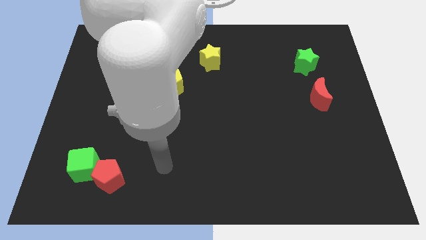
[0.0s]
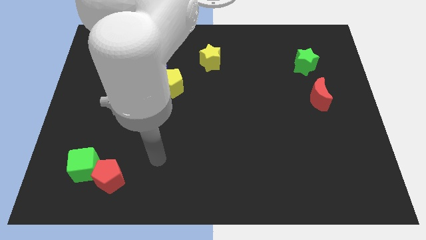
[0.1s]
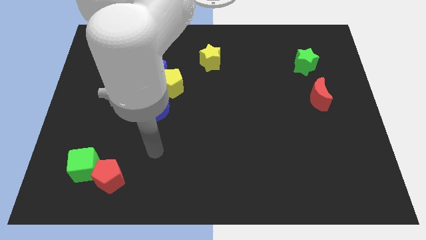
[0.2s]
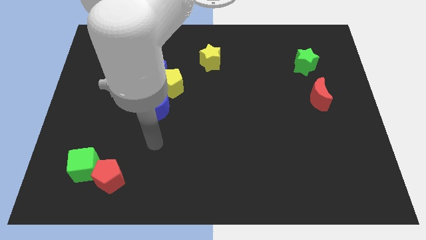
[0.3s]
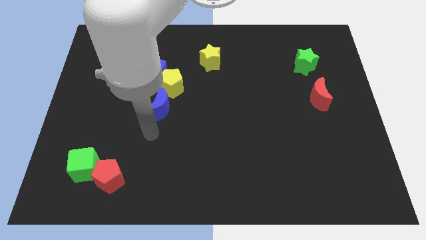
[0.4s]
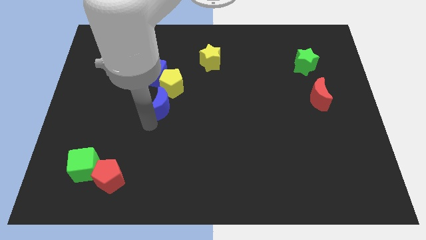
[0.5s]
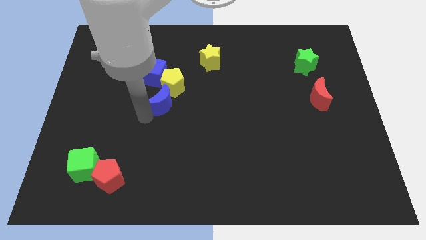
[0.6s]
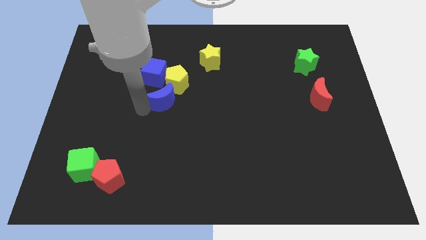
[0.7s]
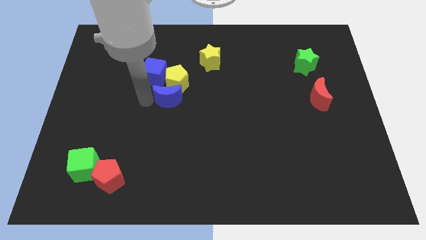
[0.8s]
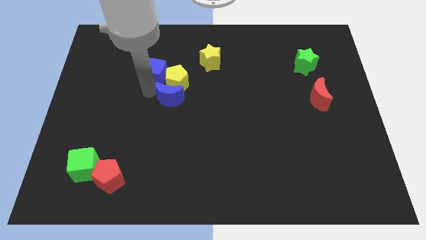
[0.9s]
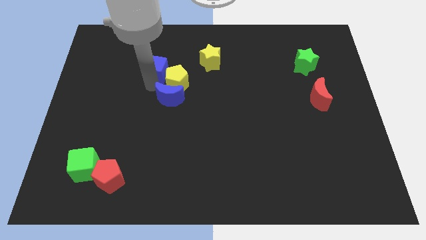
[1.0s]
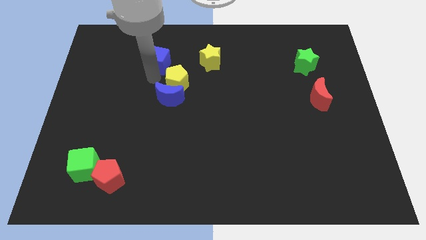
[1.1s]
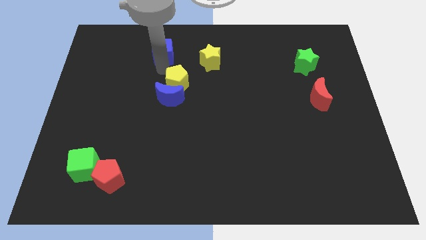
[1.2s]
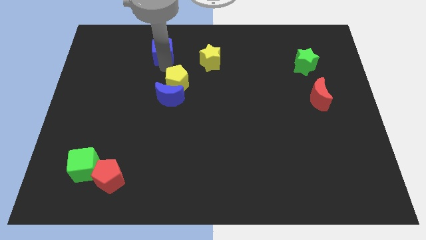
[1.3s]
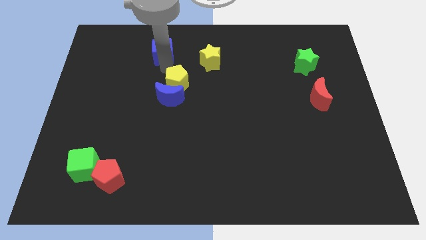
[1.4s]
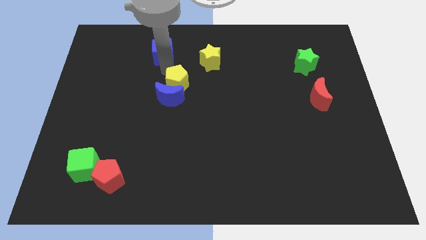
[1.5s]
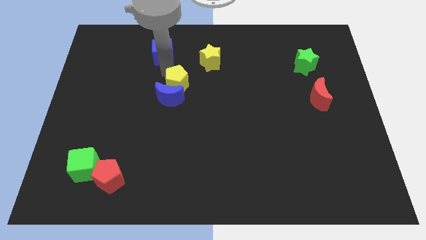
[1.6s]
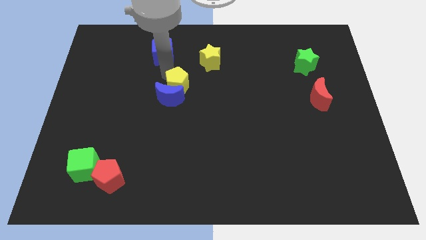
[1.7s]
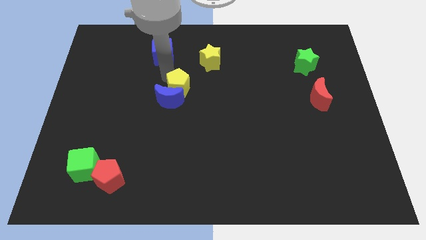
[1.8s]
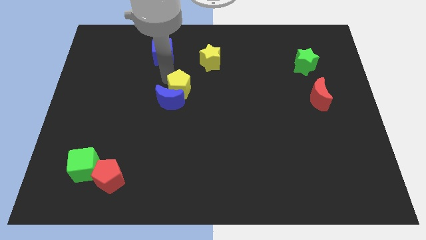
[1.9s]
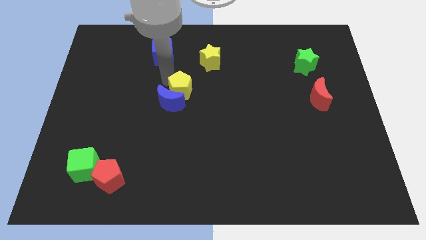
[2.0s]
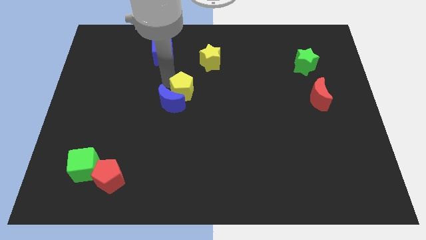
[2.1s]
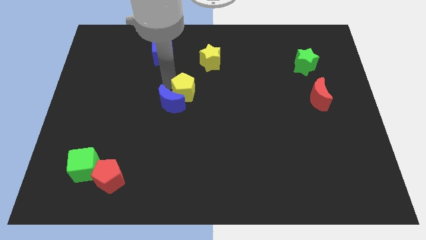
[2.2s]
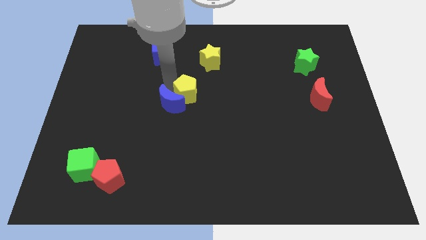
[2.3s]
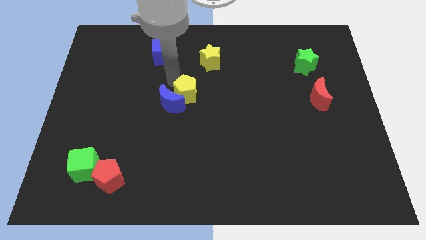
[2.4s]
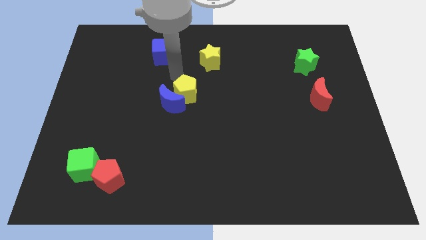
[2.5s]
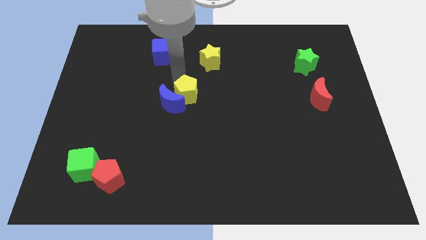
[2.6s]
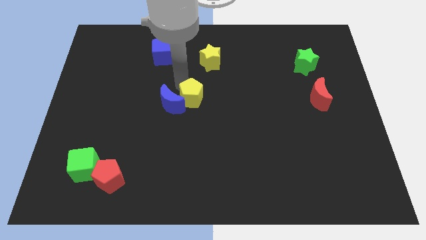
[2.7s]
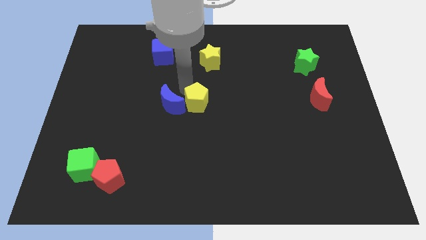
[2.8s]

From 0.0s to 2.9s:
push the yellow pentagon somewhat downwards and right

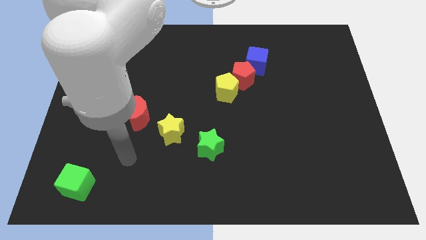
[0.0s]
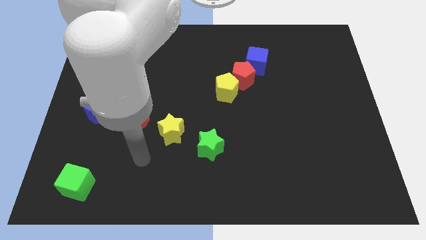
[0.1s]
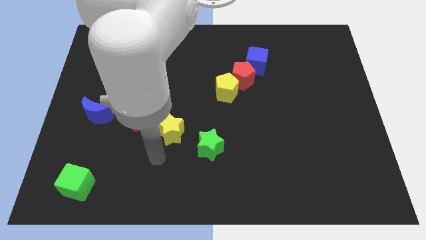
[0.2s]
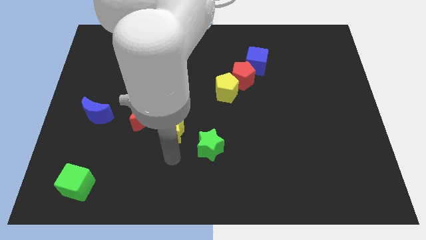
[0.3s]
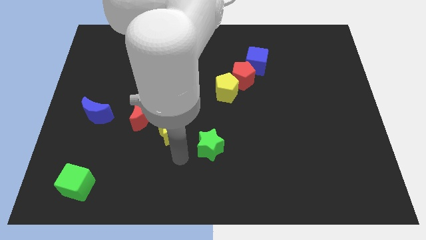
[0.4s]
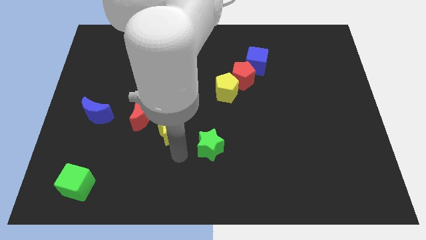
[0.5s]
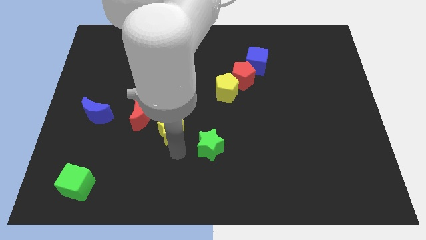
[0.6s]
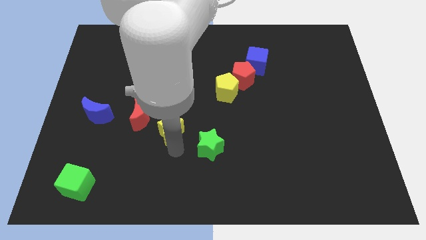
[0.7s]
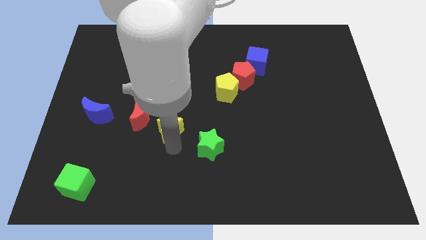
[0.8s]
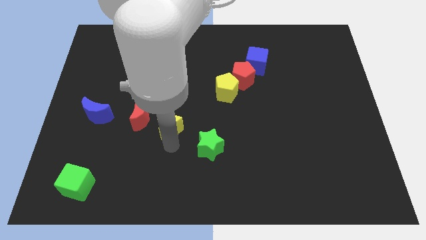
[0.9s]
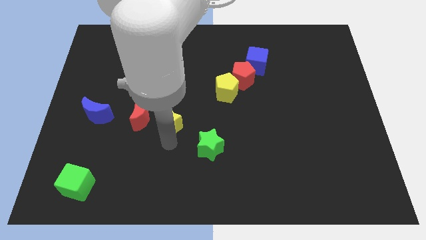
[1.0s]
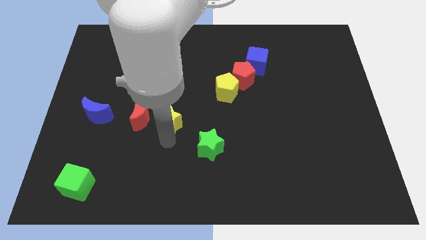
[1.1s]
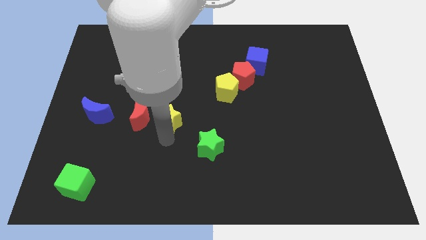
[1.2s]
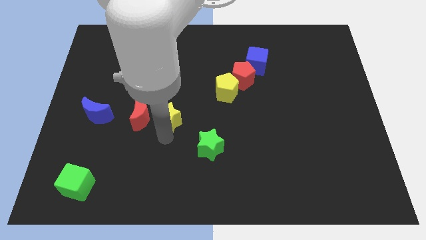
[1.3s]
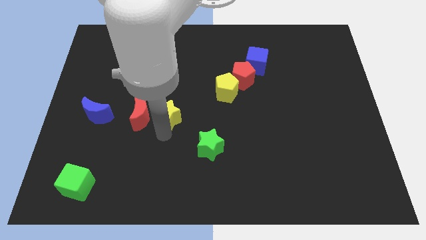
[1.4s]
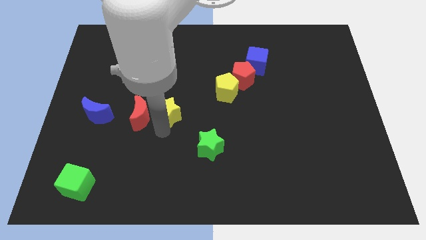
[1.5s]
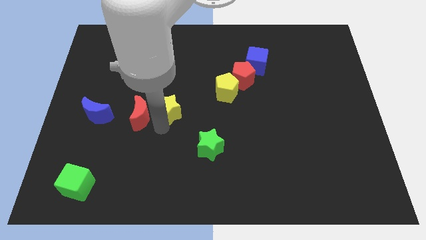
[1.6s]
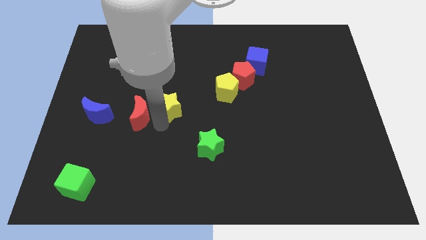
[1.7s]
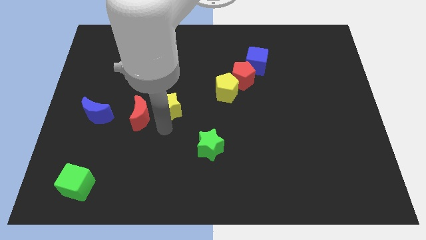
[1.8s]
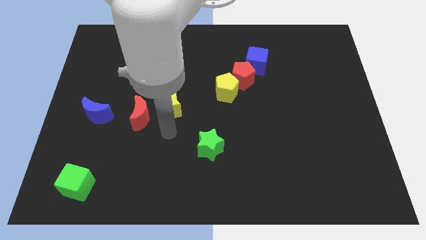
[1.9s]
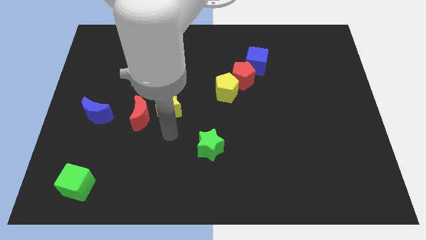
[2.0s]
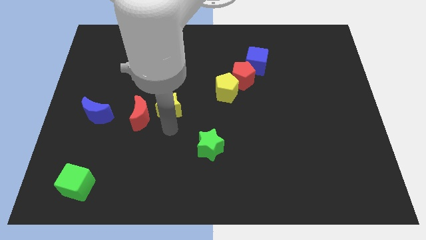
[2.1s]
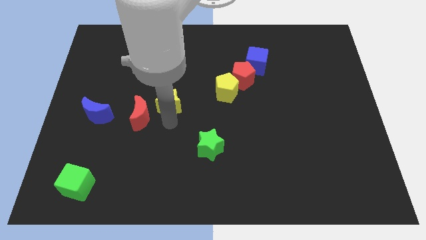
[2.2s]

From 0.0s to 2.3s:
slightly push the yellow star up

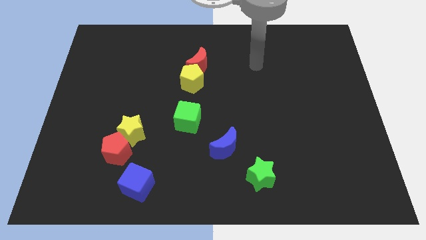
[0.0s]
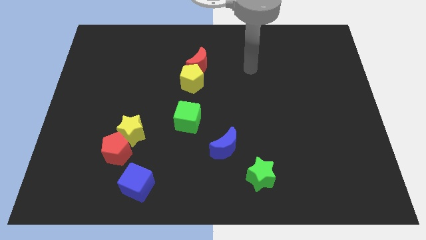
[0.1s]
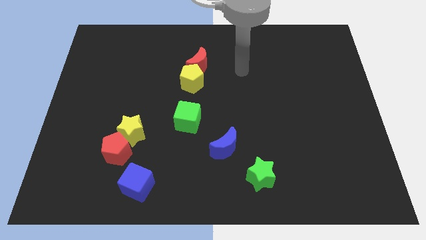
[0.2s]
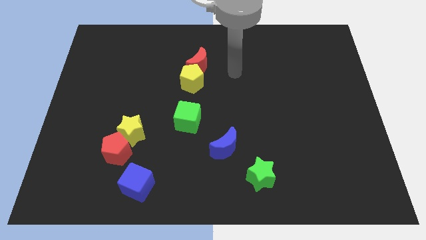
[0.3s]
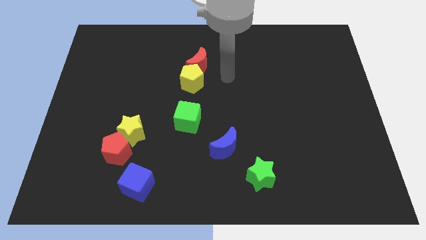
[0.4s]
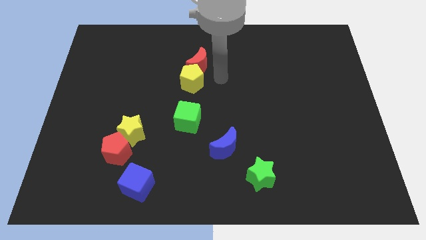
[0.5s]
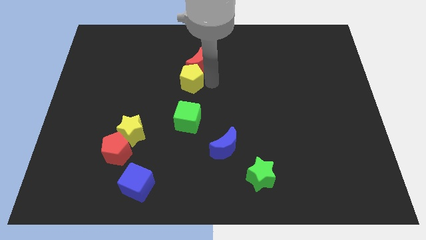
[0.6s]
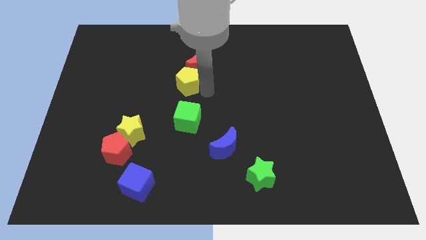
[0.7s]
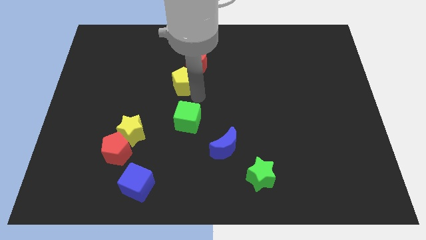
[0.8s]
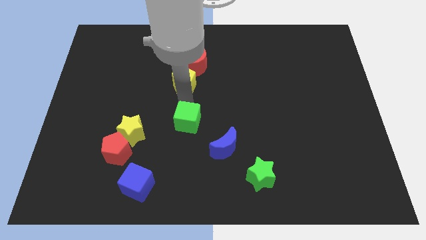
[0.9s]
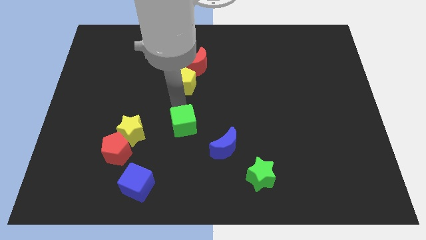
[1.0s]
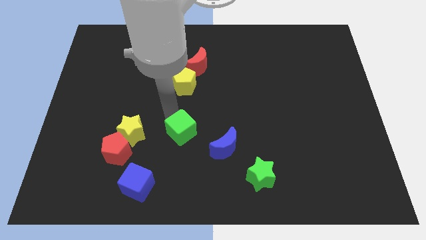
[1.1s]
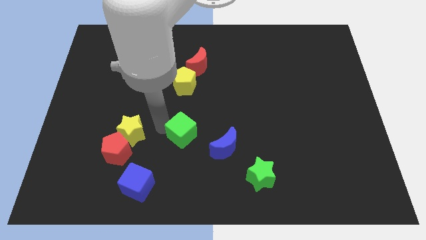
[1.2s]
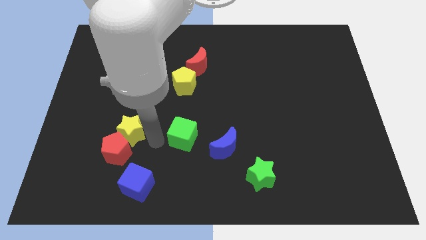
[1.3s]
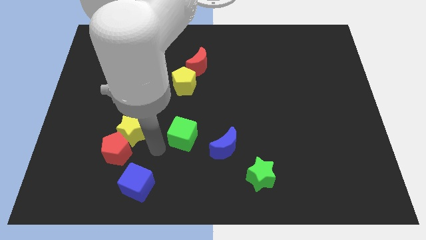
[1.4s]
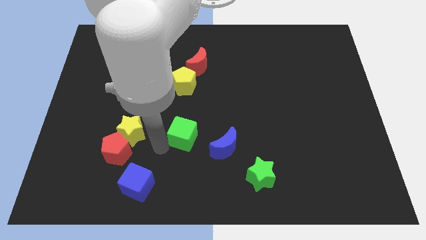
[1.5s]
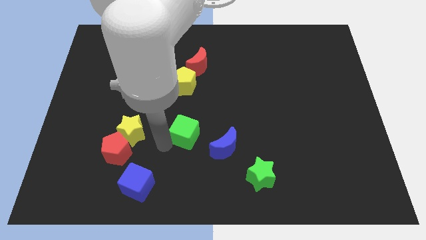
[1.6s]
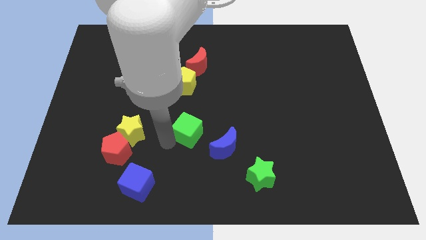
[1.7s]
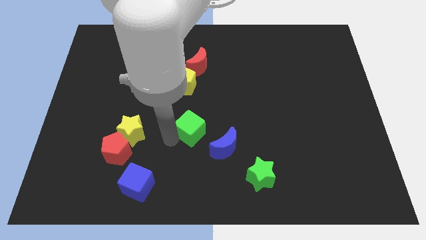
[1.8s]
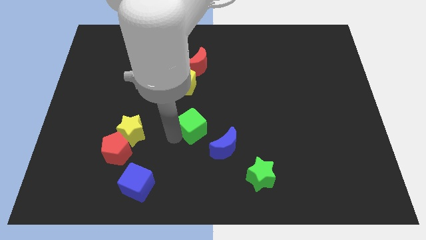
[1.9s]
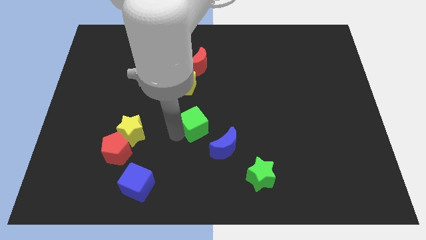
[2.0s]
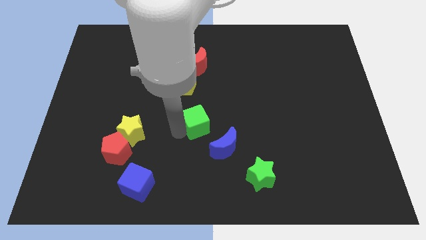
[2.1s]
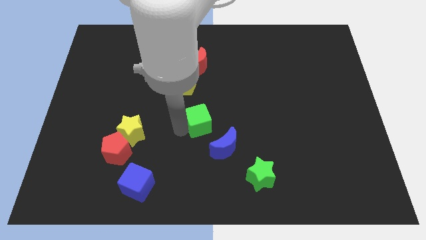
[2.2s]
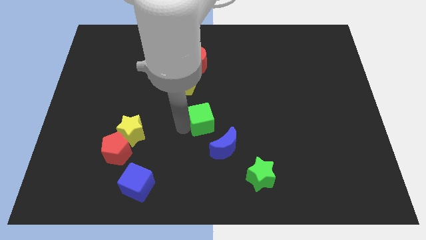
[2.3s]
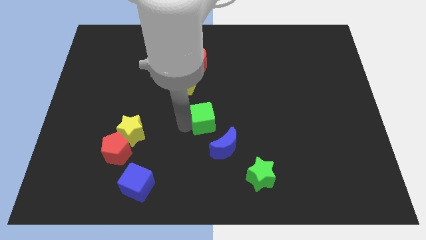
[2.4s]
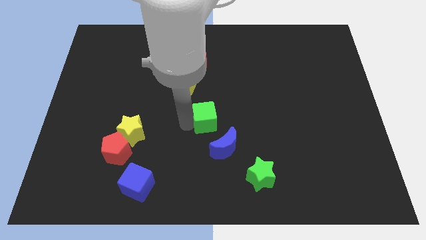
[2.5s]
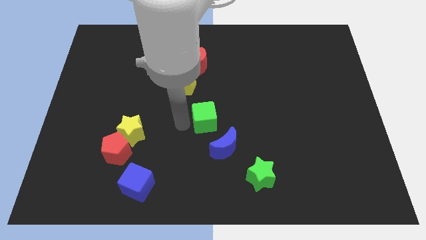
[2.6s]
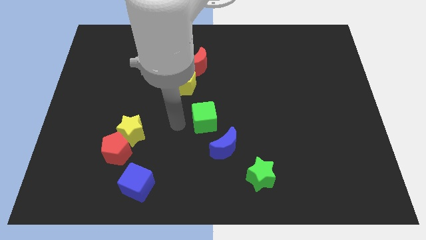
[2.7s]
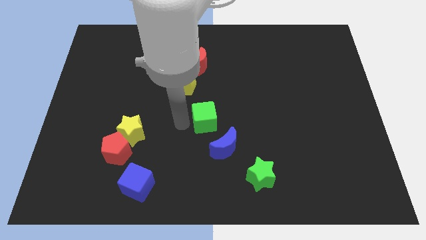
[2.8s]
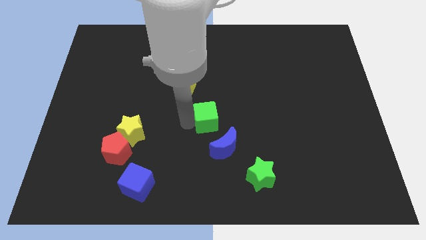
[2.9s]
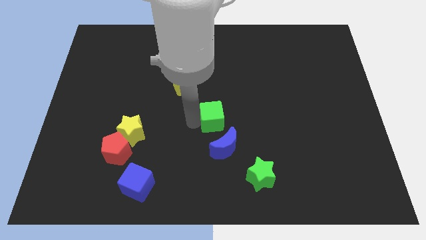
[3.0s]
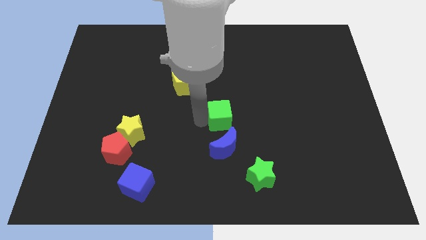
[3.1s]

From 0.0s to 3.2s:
move the green cube right slightly
